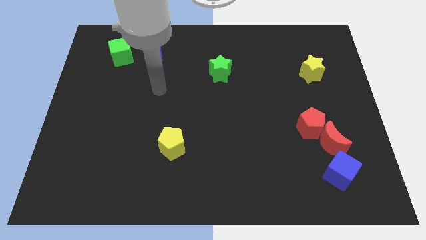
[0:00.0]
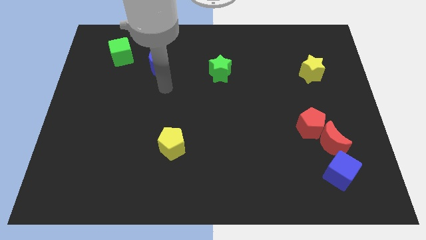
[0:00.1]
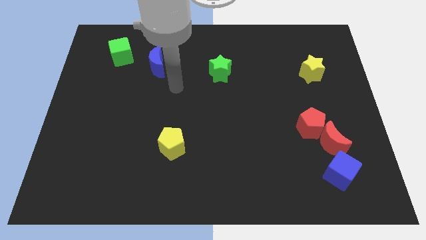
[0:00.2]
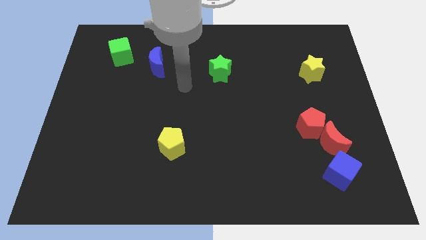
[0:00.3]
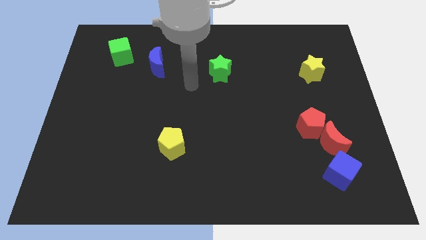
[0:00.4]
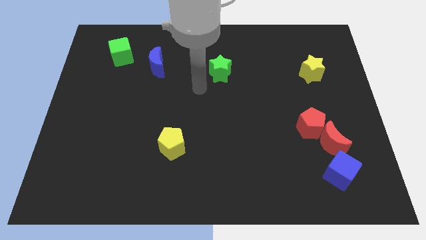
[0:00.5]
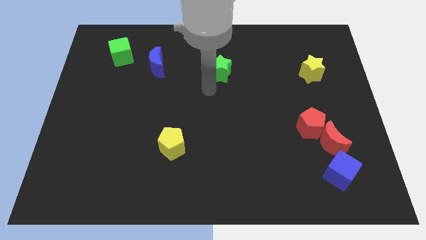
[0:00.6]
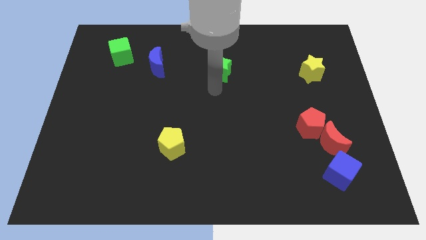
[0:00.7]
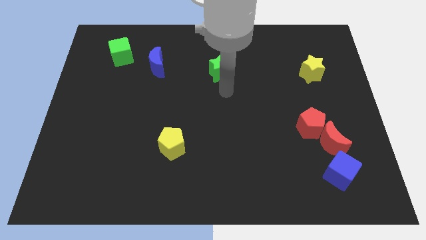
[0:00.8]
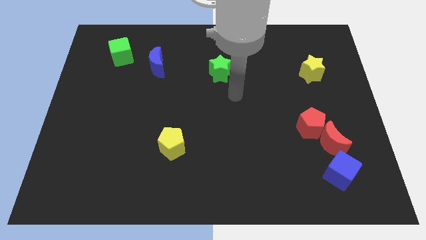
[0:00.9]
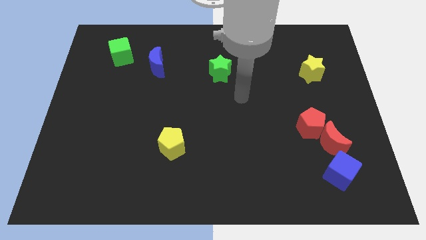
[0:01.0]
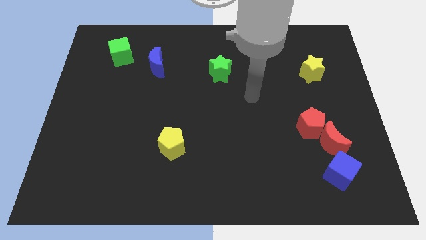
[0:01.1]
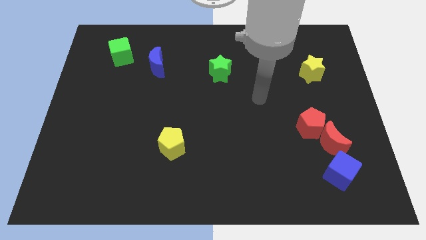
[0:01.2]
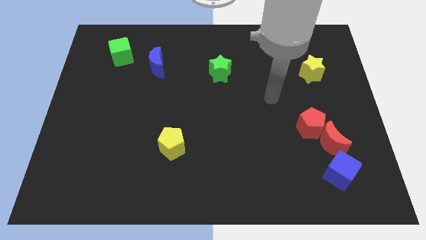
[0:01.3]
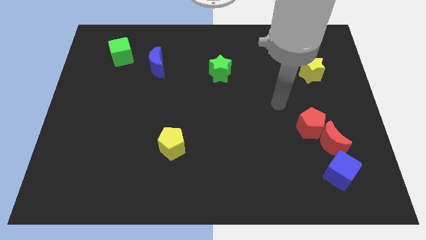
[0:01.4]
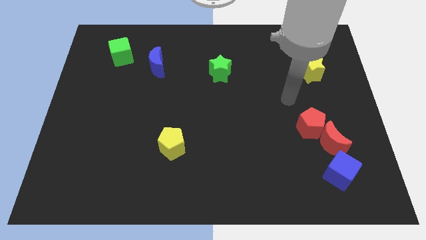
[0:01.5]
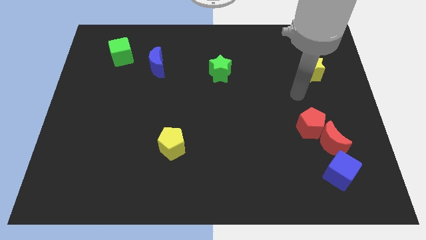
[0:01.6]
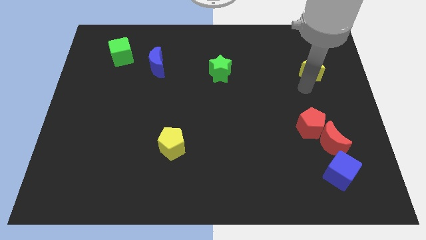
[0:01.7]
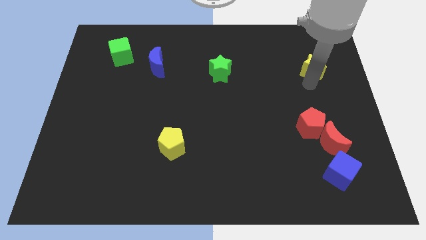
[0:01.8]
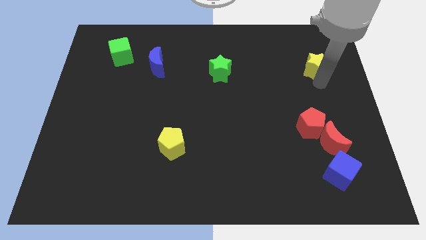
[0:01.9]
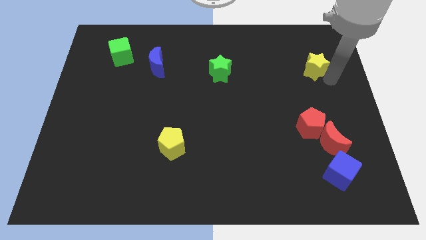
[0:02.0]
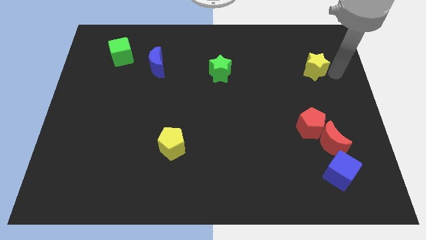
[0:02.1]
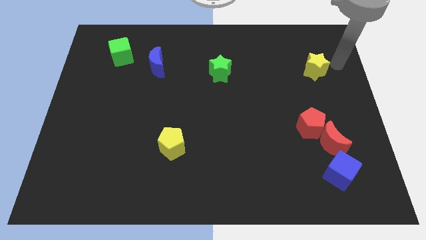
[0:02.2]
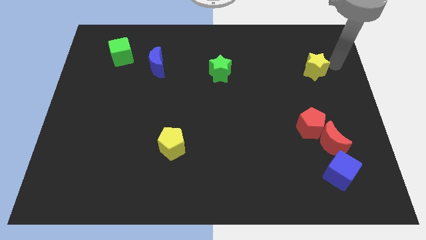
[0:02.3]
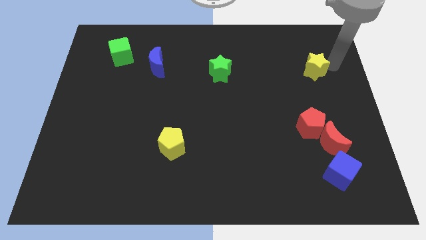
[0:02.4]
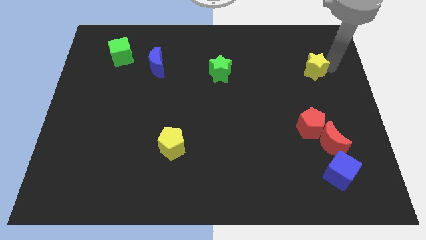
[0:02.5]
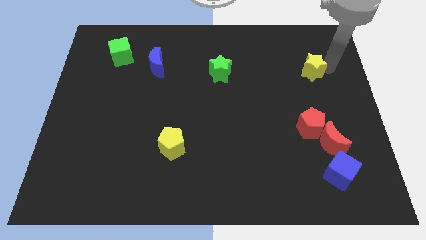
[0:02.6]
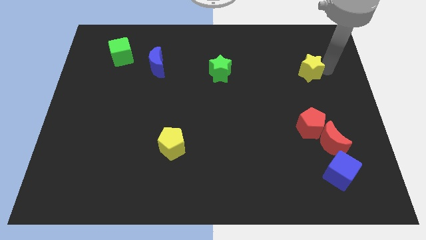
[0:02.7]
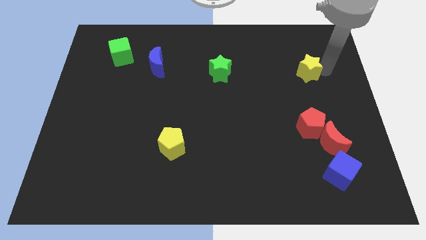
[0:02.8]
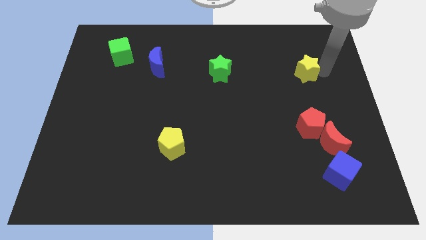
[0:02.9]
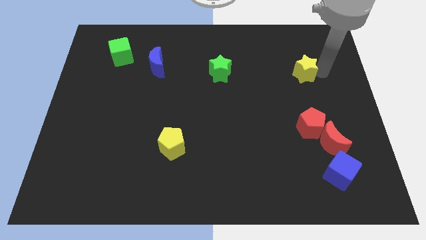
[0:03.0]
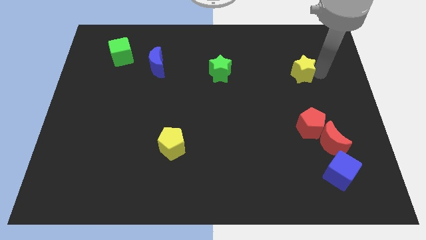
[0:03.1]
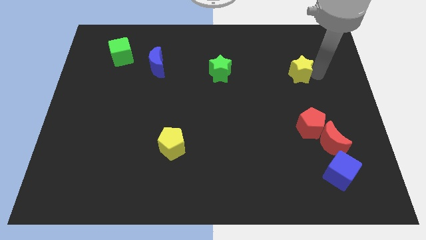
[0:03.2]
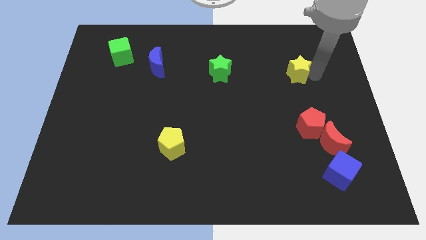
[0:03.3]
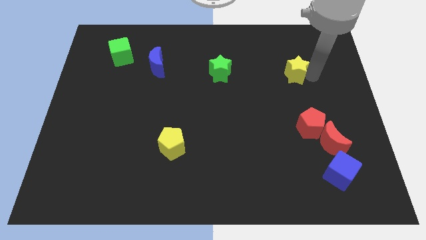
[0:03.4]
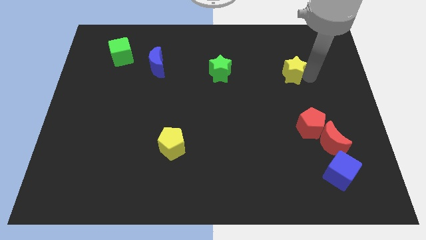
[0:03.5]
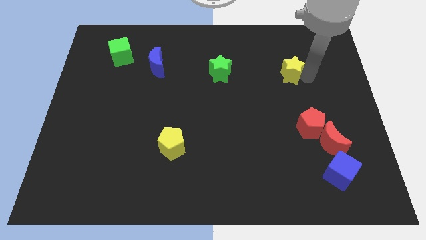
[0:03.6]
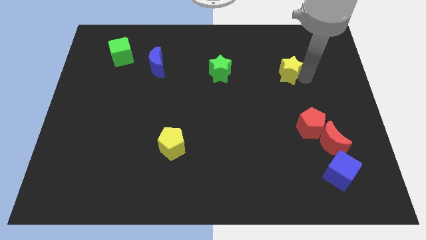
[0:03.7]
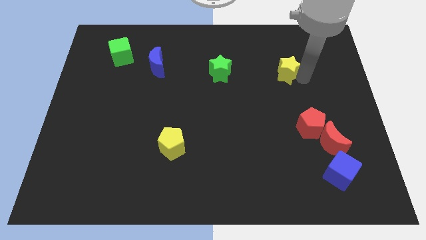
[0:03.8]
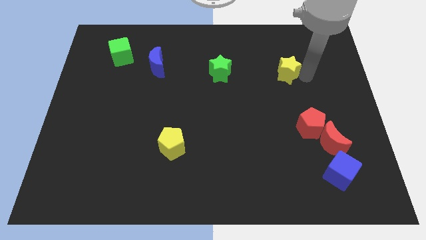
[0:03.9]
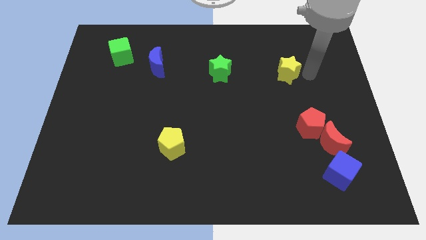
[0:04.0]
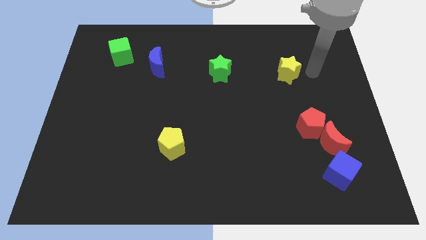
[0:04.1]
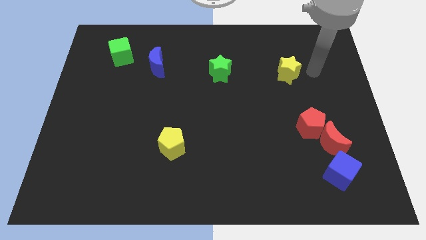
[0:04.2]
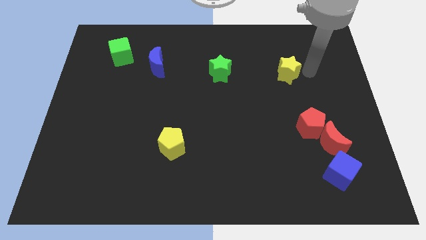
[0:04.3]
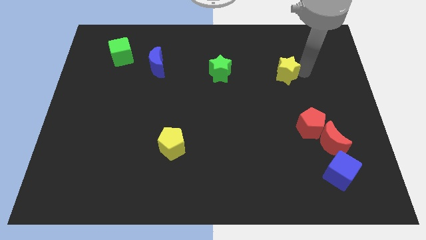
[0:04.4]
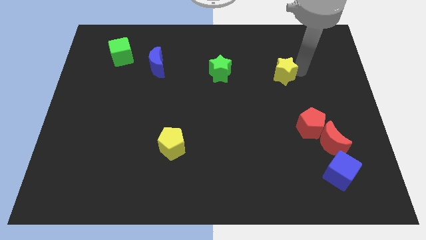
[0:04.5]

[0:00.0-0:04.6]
move the yellow star a little bit left

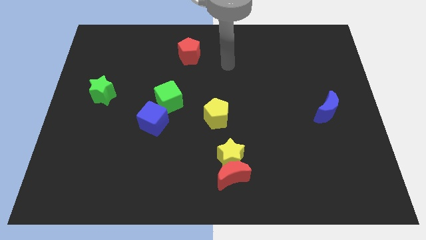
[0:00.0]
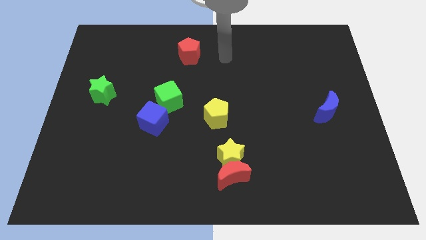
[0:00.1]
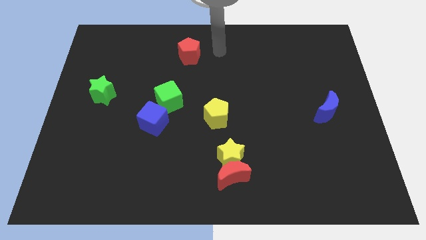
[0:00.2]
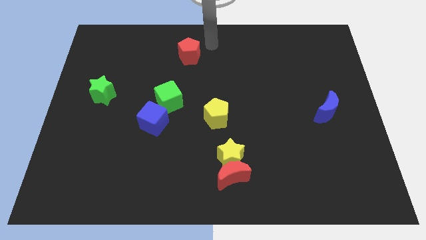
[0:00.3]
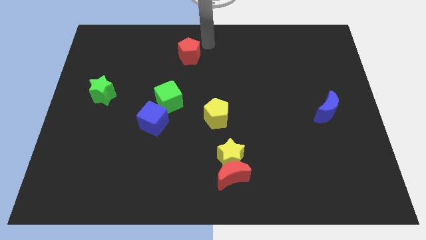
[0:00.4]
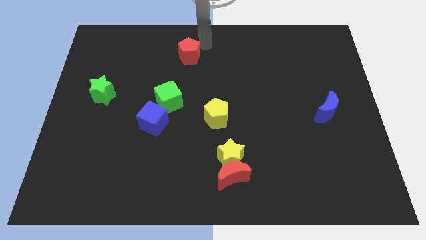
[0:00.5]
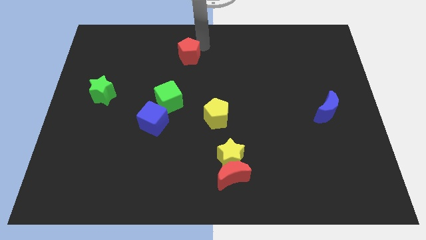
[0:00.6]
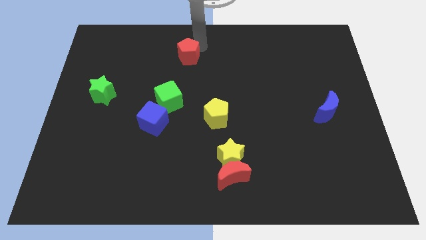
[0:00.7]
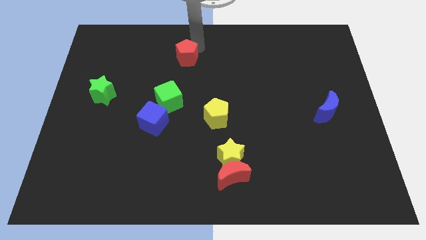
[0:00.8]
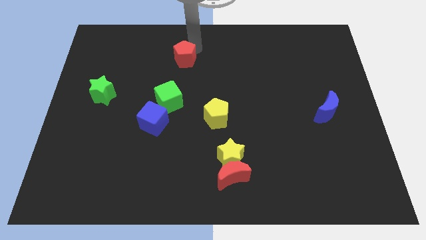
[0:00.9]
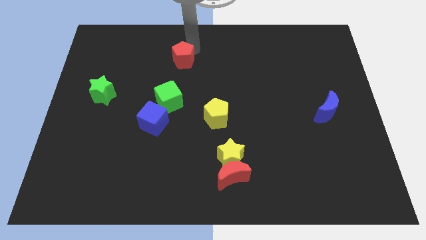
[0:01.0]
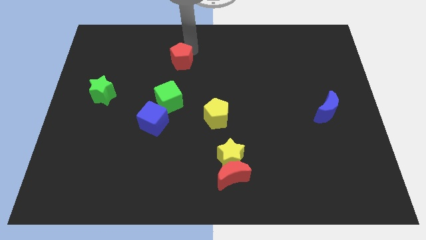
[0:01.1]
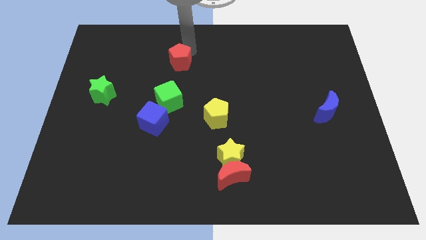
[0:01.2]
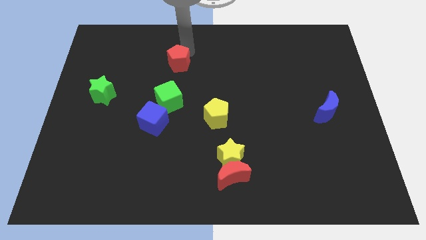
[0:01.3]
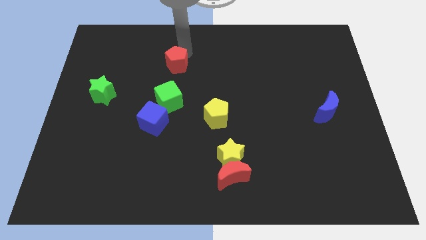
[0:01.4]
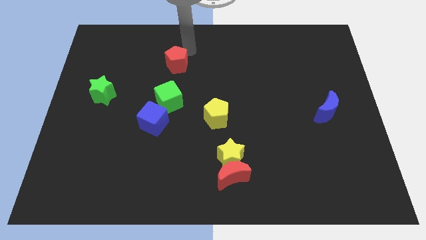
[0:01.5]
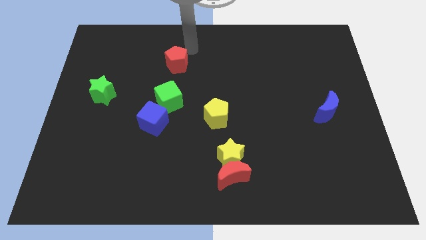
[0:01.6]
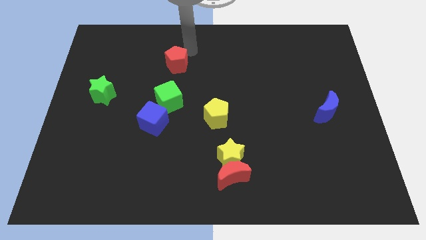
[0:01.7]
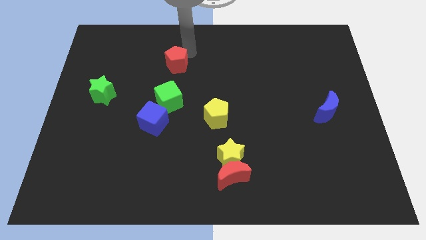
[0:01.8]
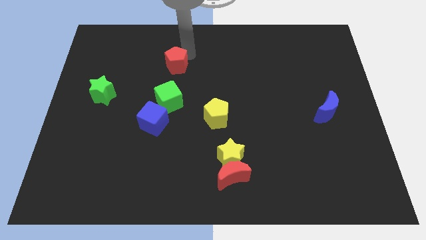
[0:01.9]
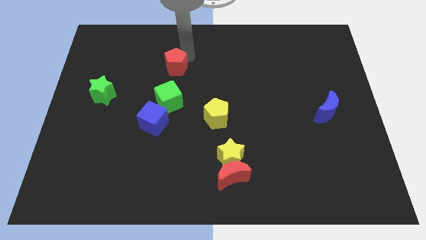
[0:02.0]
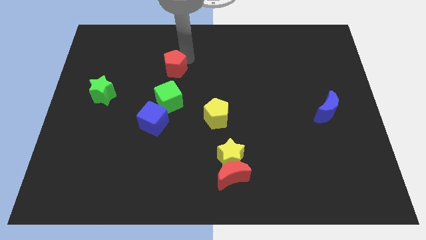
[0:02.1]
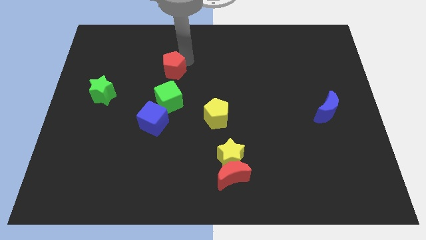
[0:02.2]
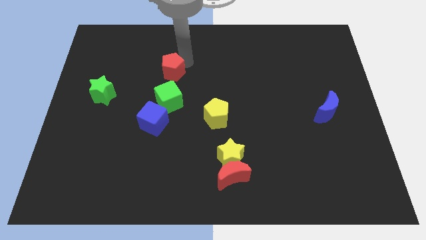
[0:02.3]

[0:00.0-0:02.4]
slide the red pentagon down and left diagonally a bit

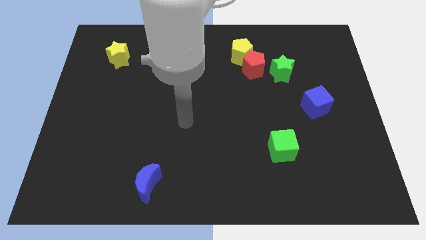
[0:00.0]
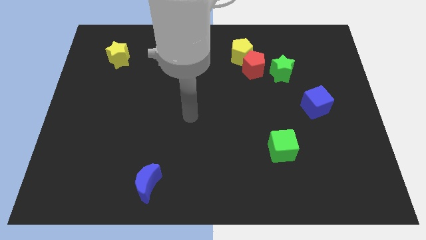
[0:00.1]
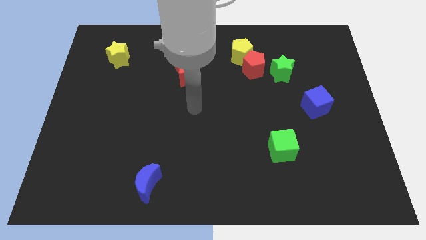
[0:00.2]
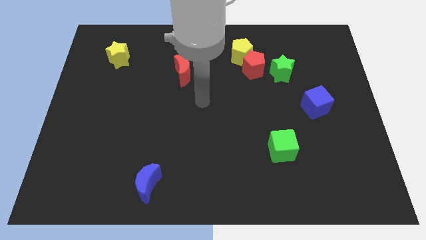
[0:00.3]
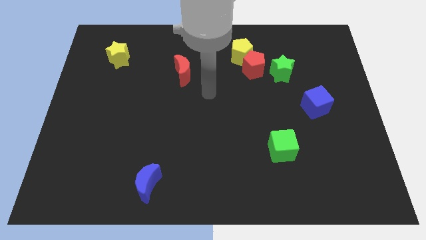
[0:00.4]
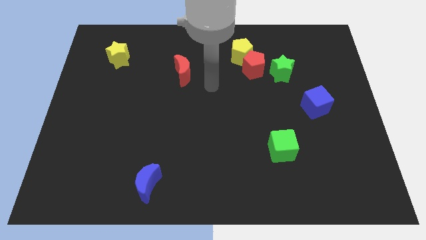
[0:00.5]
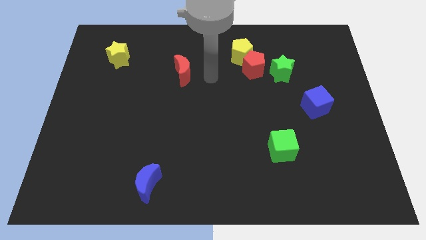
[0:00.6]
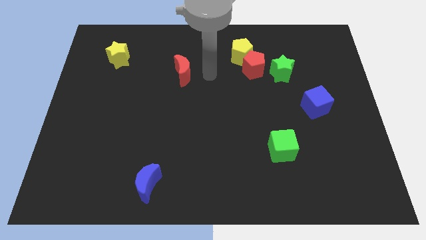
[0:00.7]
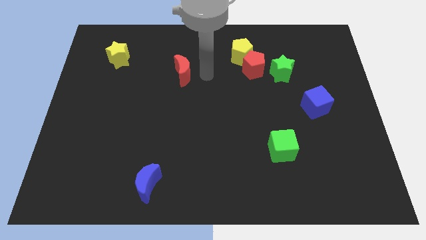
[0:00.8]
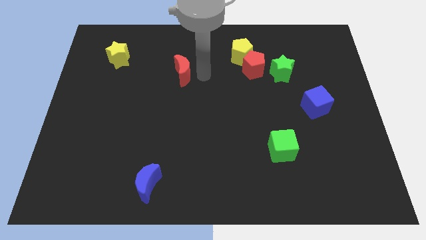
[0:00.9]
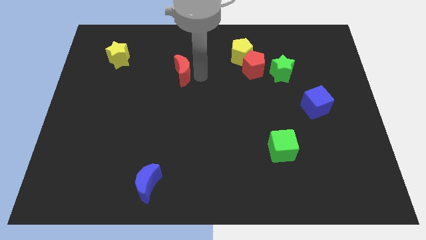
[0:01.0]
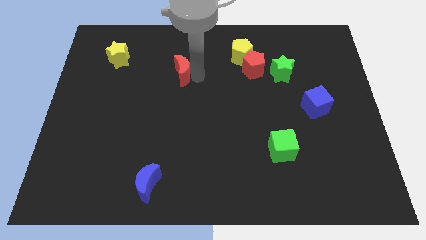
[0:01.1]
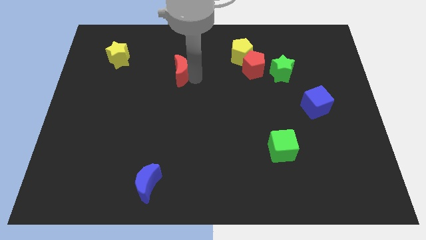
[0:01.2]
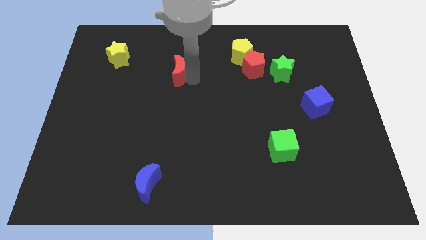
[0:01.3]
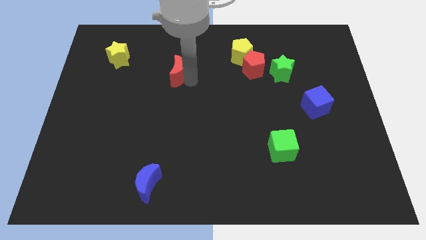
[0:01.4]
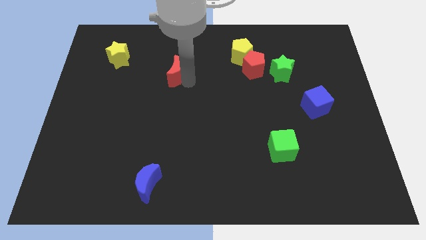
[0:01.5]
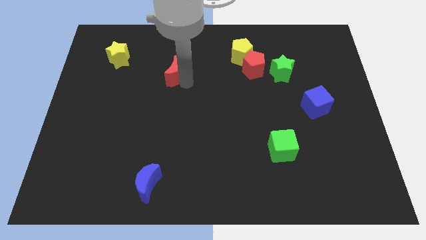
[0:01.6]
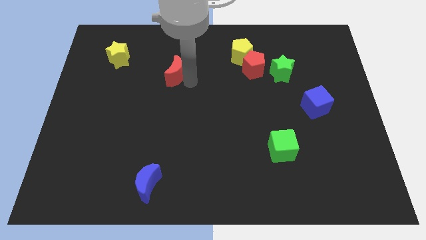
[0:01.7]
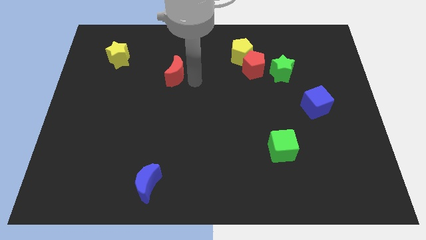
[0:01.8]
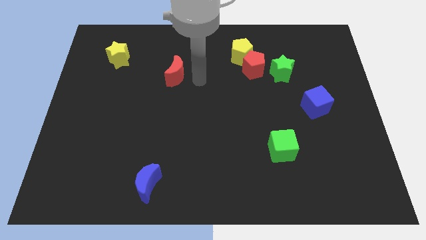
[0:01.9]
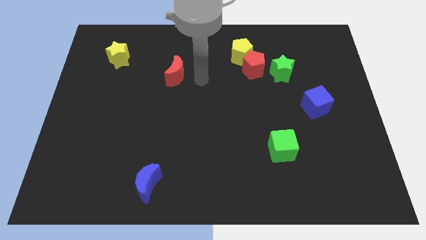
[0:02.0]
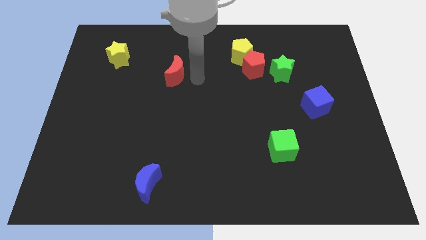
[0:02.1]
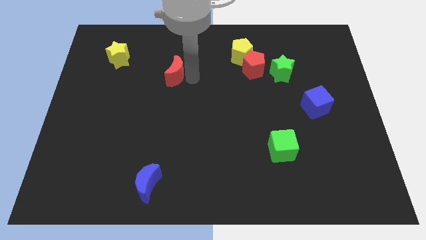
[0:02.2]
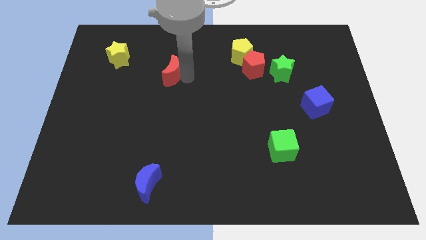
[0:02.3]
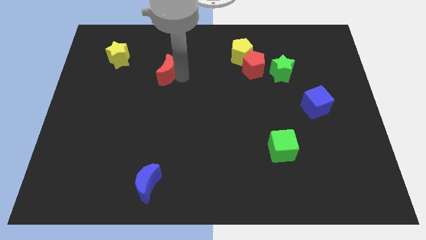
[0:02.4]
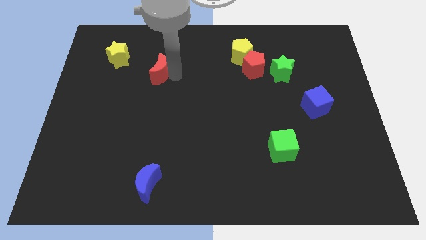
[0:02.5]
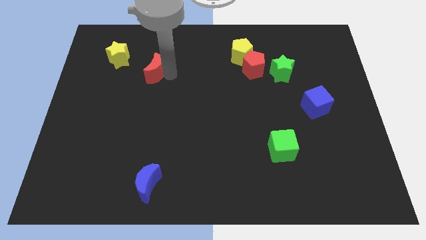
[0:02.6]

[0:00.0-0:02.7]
slightly push the red moon left
